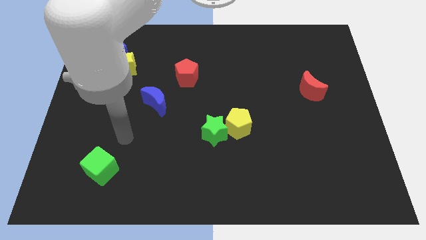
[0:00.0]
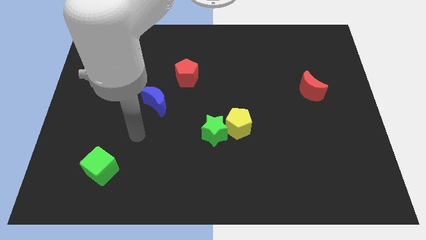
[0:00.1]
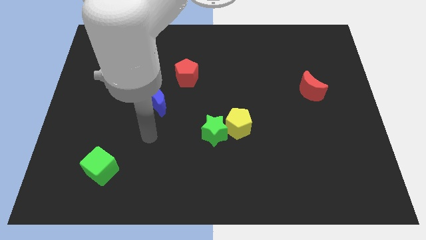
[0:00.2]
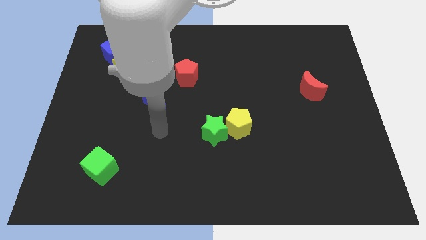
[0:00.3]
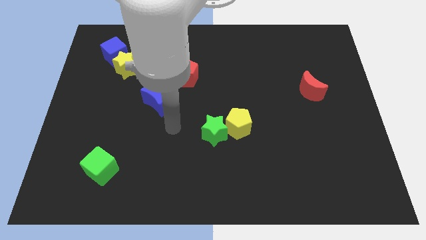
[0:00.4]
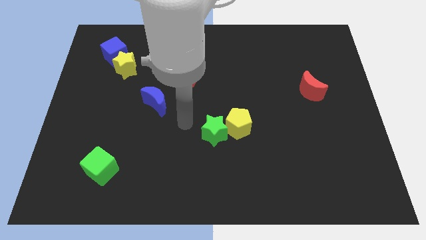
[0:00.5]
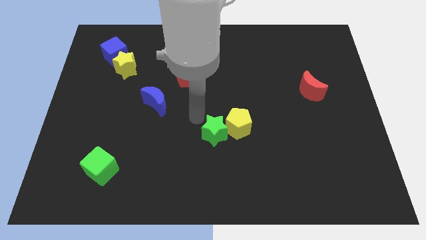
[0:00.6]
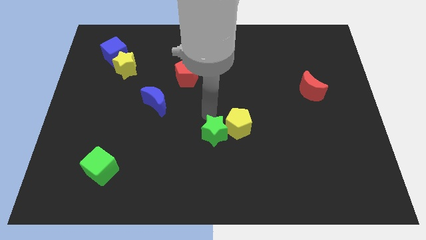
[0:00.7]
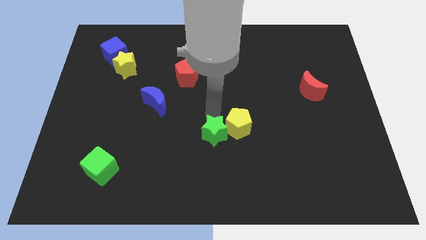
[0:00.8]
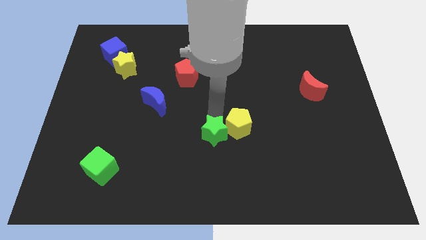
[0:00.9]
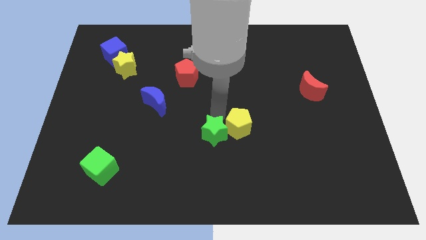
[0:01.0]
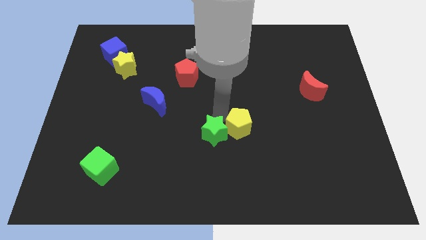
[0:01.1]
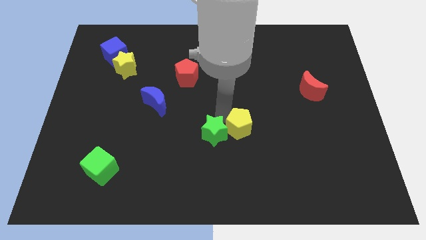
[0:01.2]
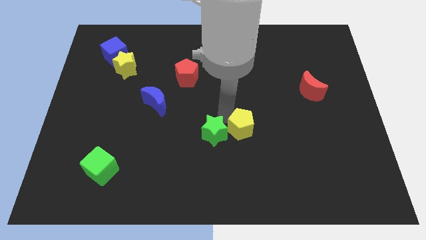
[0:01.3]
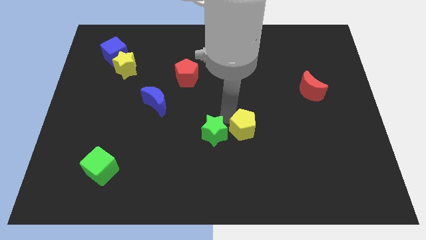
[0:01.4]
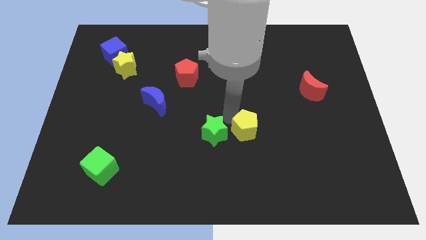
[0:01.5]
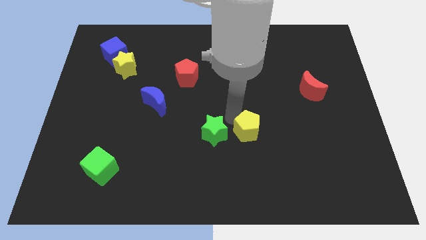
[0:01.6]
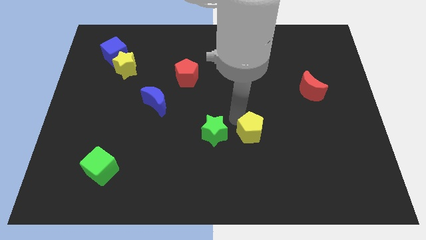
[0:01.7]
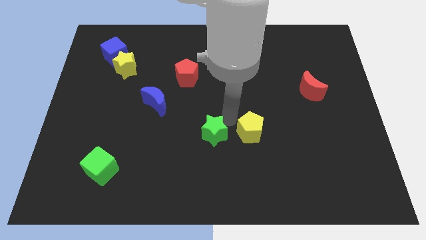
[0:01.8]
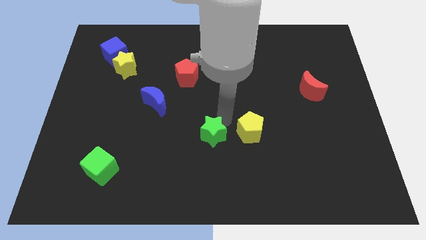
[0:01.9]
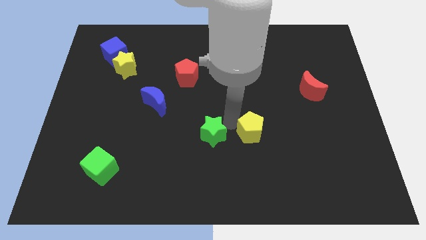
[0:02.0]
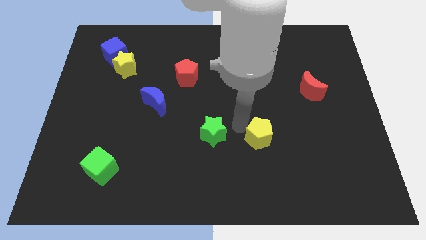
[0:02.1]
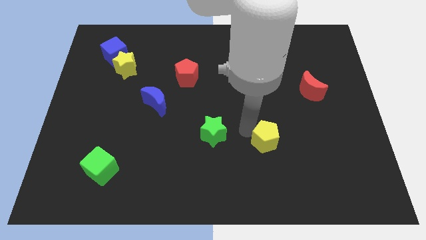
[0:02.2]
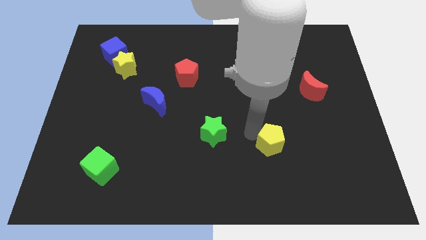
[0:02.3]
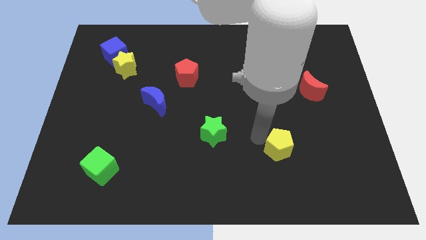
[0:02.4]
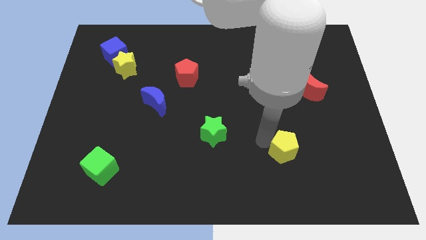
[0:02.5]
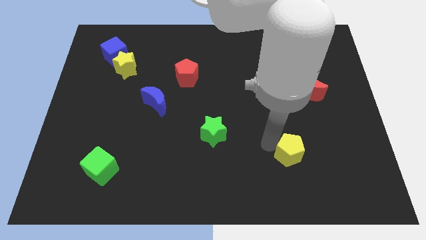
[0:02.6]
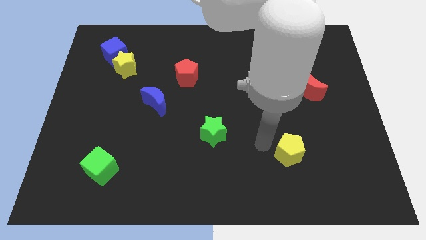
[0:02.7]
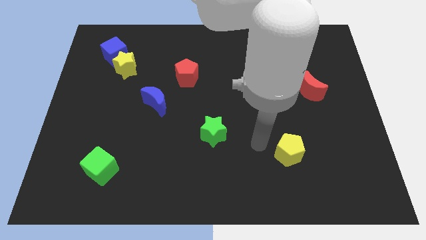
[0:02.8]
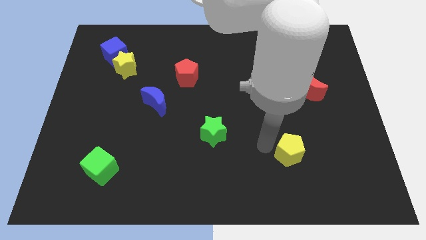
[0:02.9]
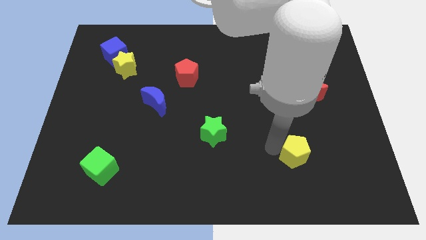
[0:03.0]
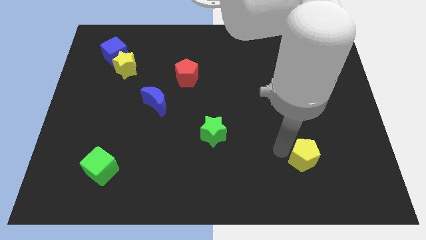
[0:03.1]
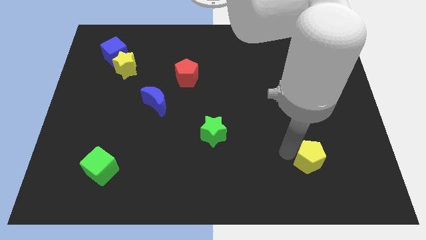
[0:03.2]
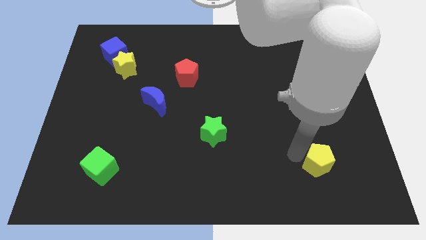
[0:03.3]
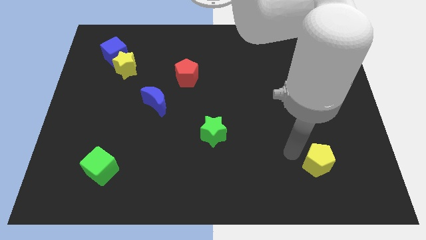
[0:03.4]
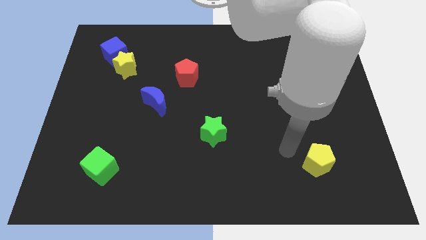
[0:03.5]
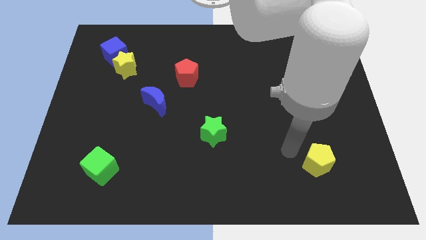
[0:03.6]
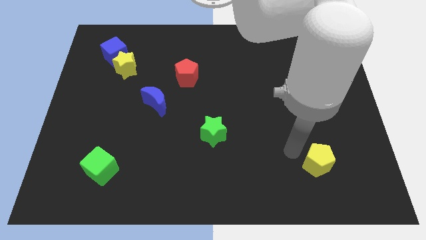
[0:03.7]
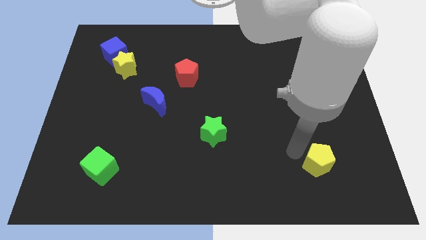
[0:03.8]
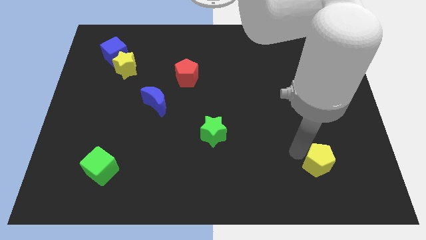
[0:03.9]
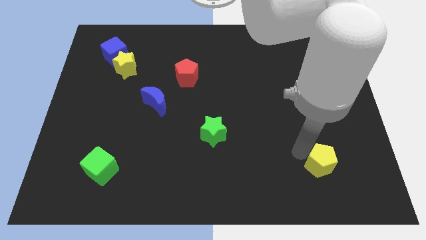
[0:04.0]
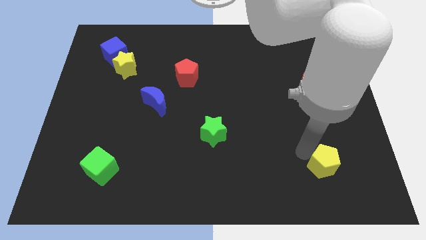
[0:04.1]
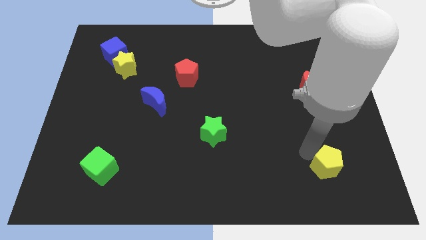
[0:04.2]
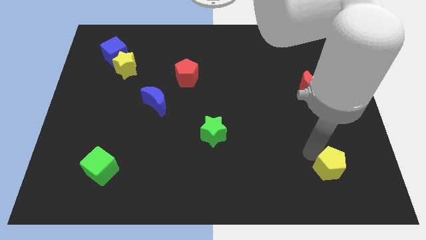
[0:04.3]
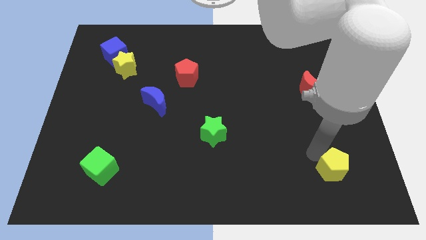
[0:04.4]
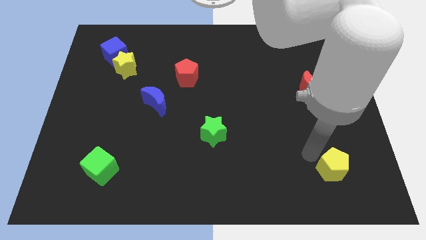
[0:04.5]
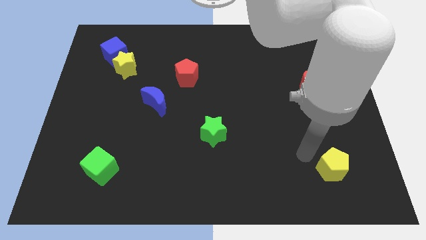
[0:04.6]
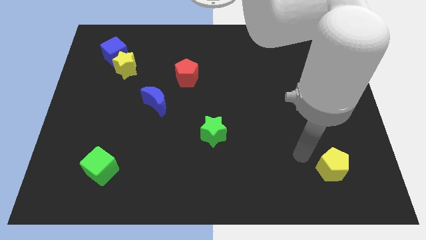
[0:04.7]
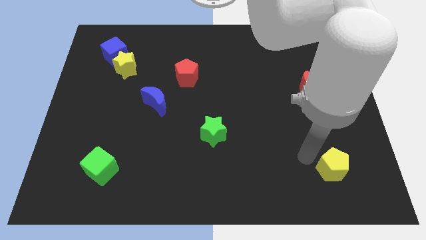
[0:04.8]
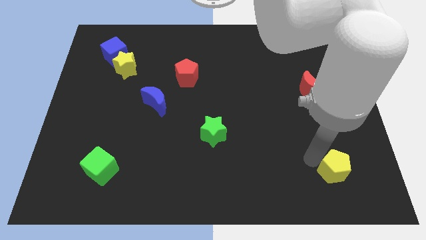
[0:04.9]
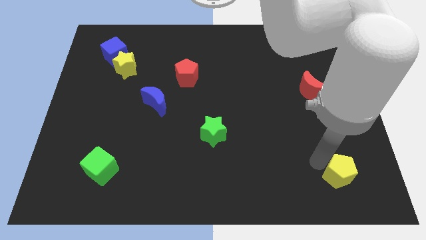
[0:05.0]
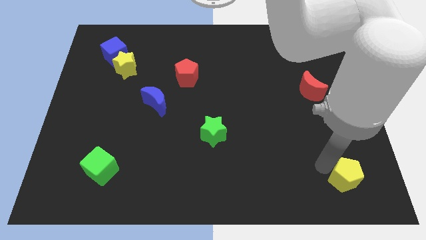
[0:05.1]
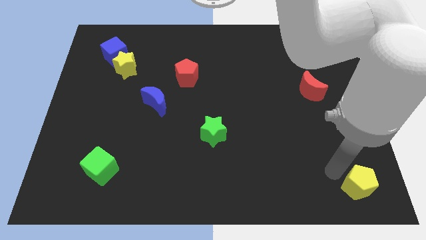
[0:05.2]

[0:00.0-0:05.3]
push the yellow pentagon to the bottom right of the board

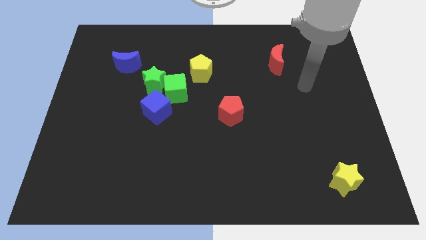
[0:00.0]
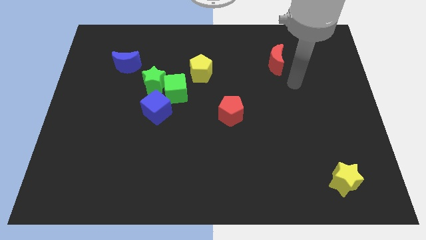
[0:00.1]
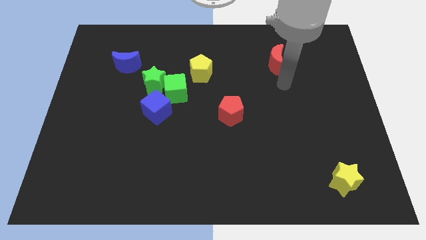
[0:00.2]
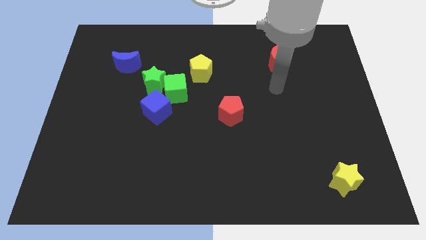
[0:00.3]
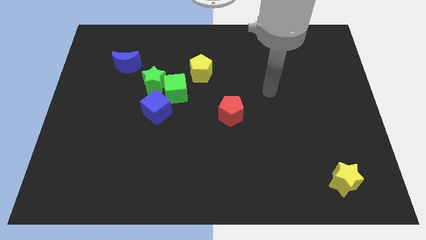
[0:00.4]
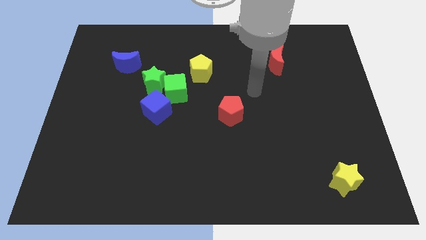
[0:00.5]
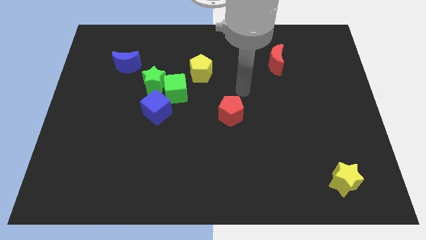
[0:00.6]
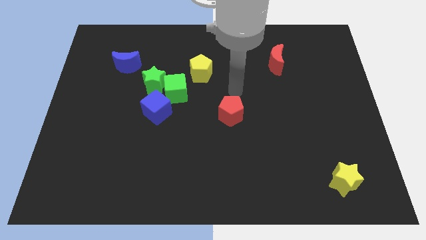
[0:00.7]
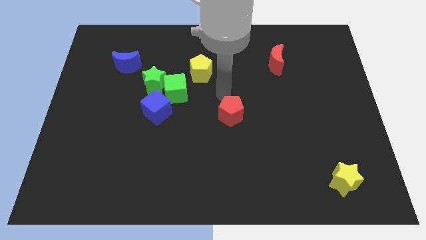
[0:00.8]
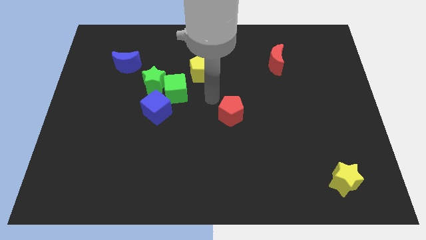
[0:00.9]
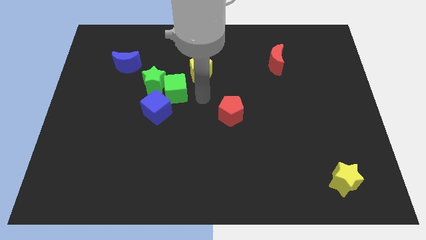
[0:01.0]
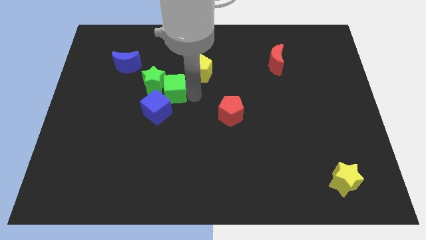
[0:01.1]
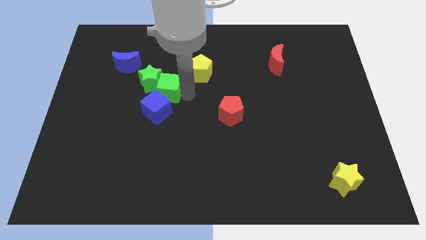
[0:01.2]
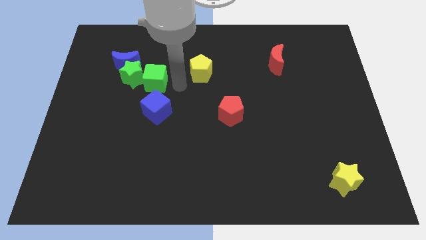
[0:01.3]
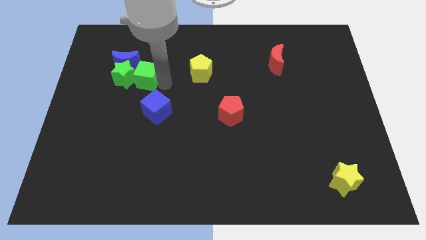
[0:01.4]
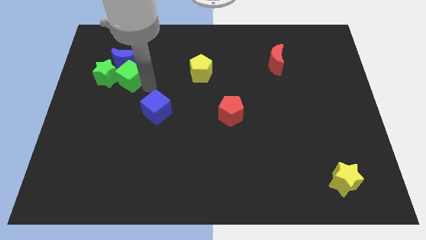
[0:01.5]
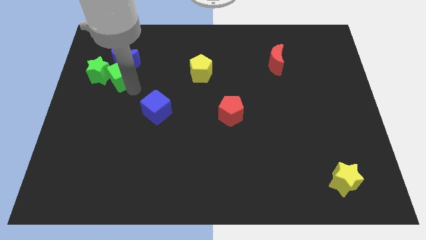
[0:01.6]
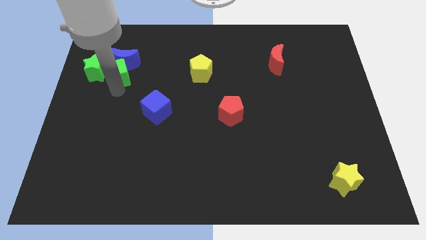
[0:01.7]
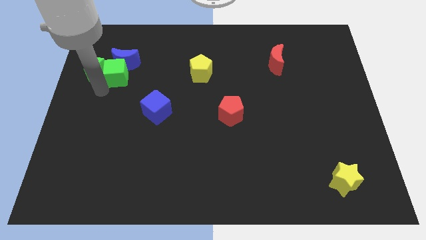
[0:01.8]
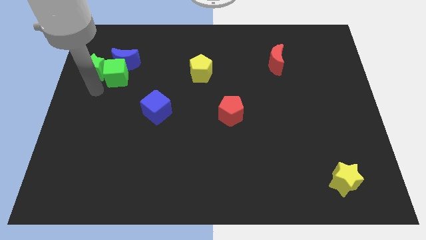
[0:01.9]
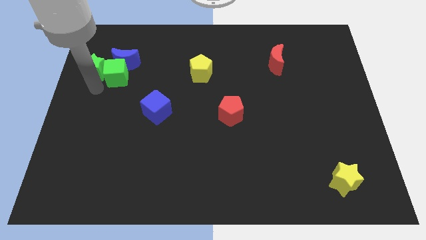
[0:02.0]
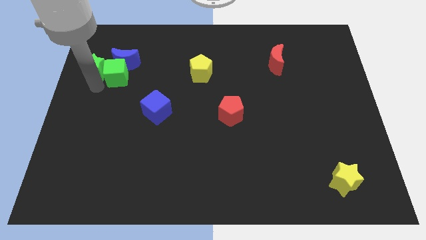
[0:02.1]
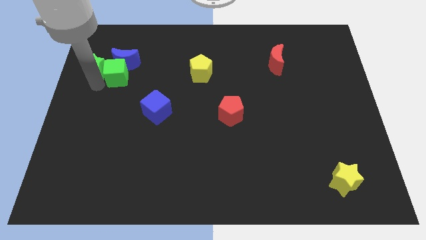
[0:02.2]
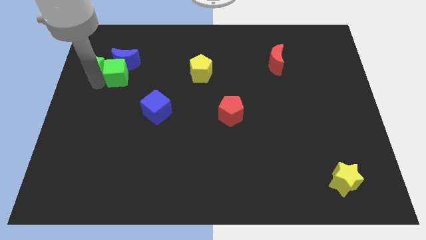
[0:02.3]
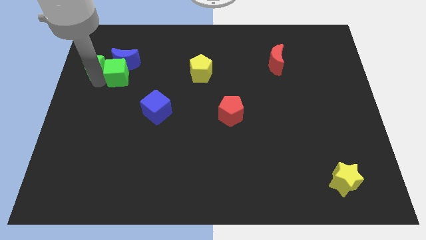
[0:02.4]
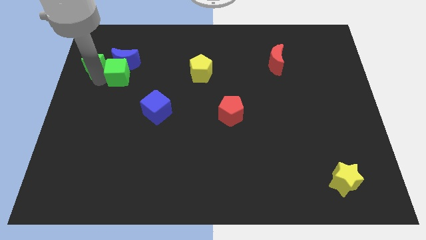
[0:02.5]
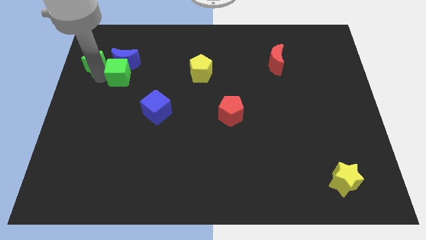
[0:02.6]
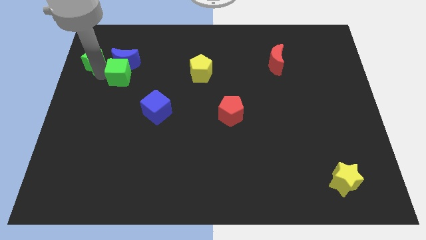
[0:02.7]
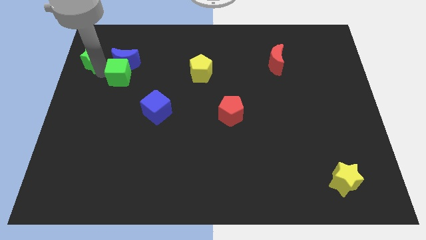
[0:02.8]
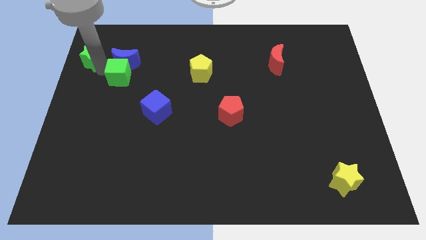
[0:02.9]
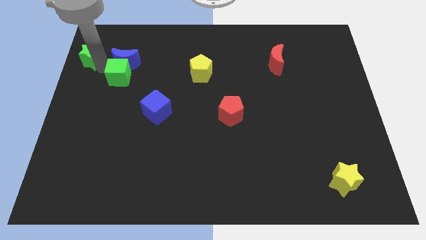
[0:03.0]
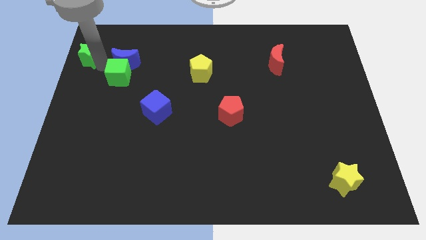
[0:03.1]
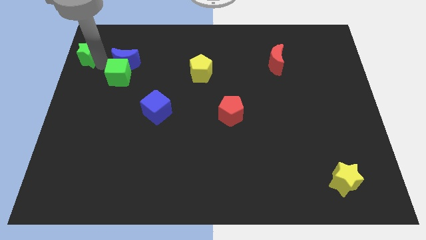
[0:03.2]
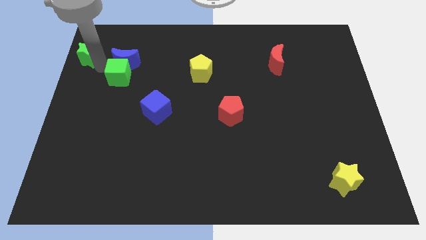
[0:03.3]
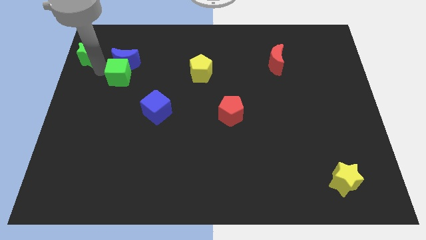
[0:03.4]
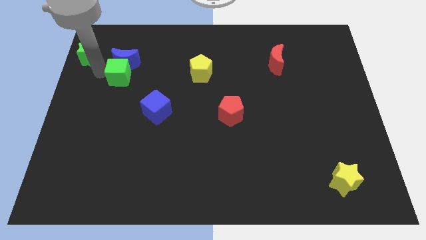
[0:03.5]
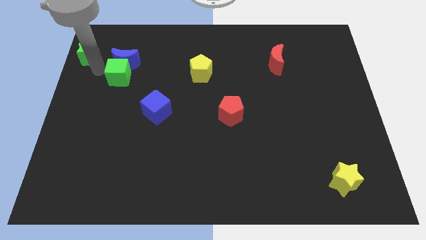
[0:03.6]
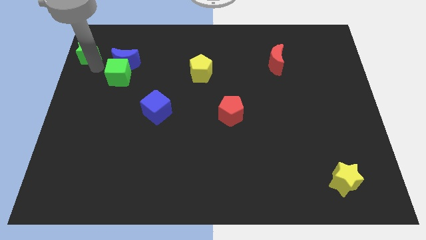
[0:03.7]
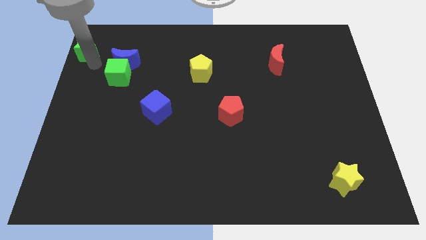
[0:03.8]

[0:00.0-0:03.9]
move the green star to the top left
